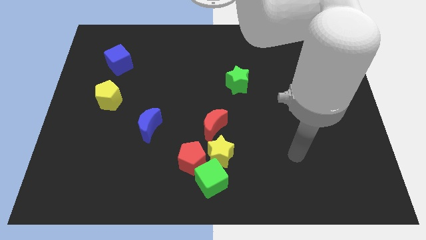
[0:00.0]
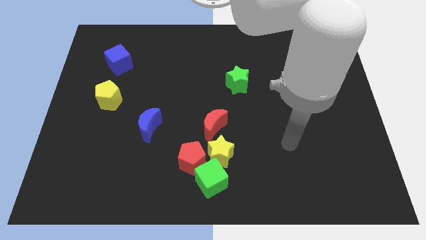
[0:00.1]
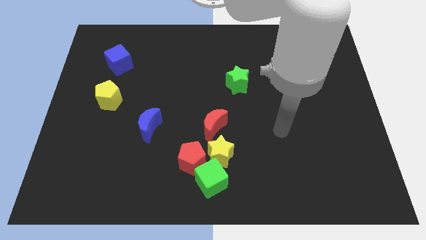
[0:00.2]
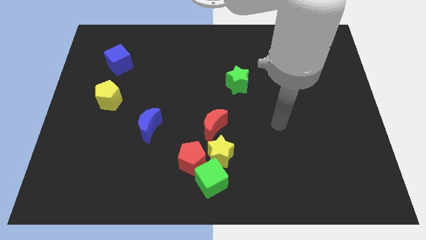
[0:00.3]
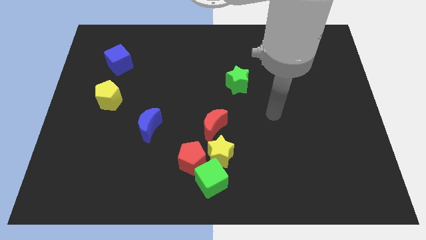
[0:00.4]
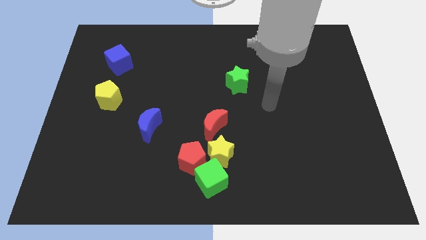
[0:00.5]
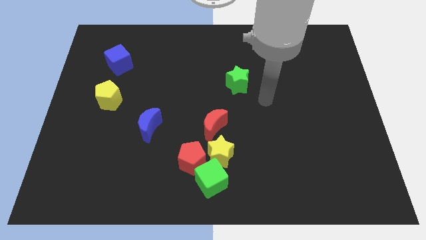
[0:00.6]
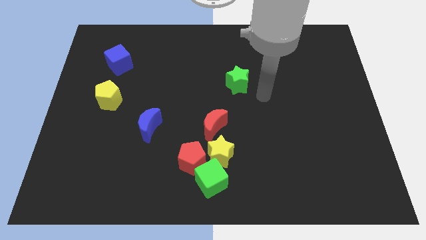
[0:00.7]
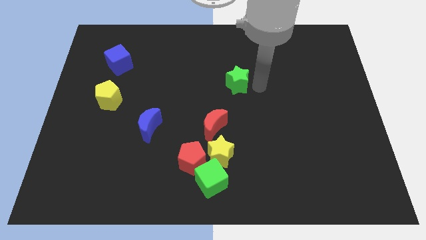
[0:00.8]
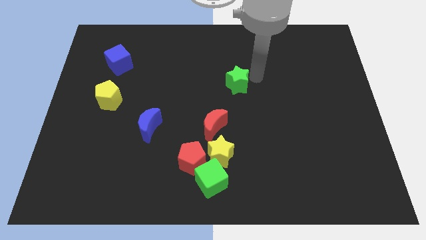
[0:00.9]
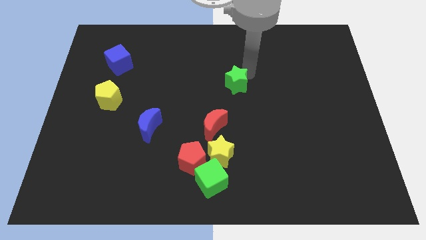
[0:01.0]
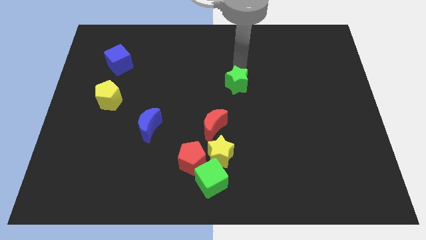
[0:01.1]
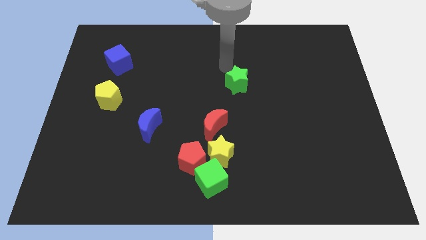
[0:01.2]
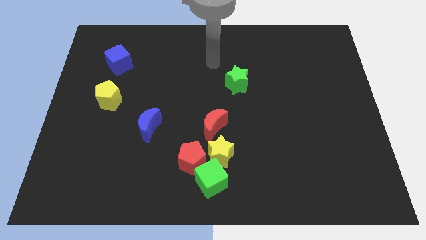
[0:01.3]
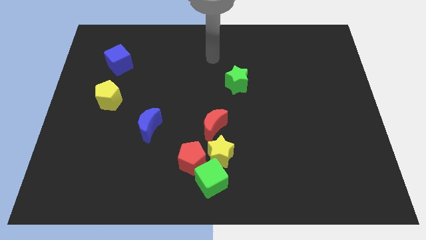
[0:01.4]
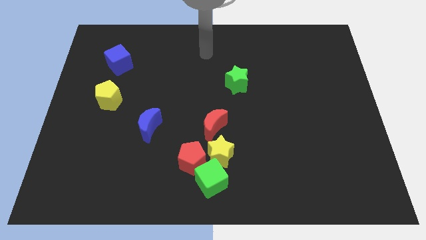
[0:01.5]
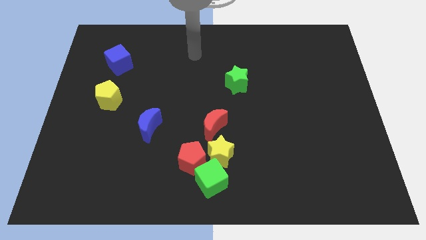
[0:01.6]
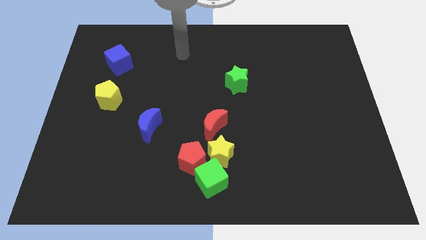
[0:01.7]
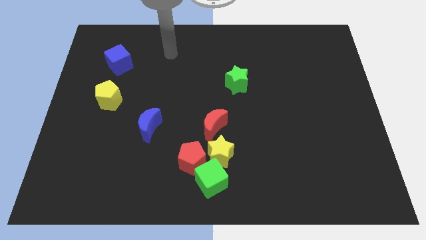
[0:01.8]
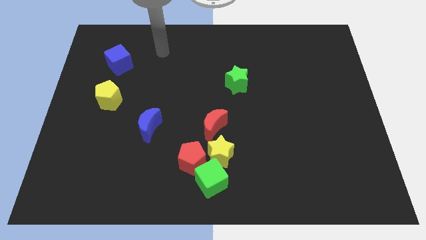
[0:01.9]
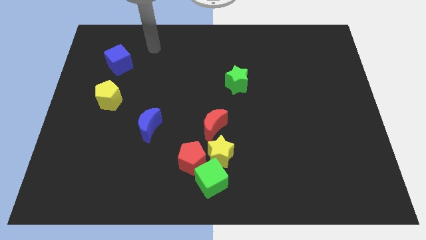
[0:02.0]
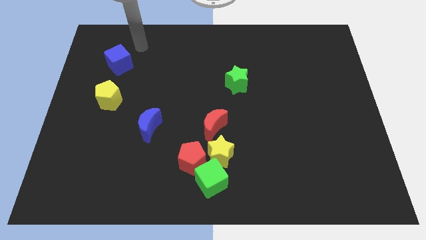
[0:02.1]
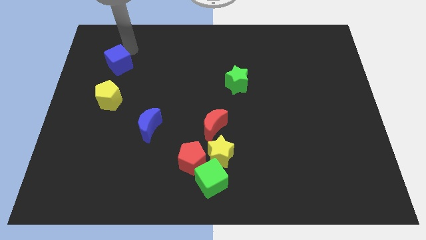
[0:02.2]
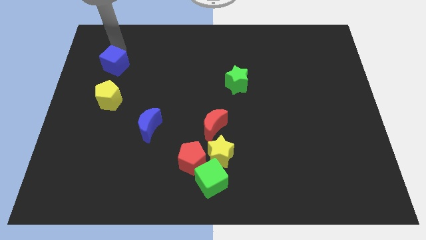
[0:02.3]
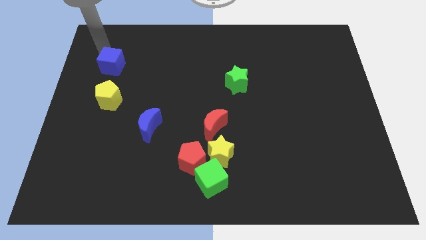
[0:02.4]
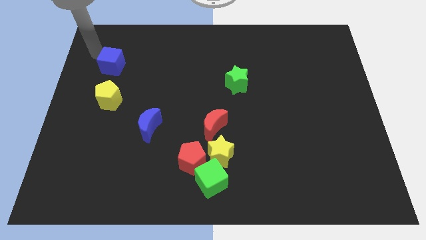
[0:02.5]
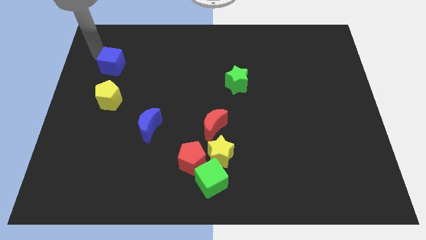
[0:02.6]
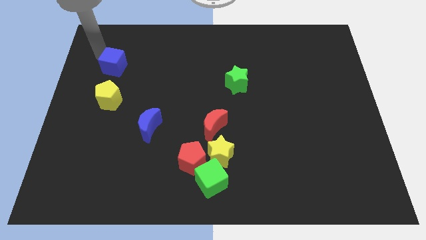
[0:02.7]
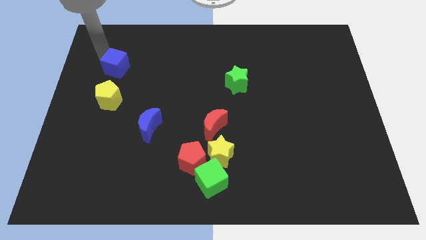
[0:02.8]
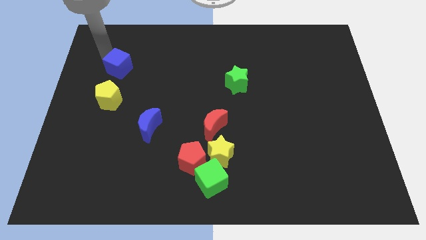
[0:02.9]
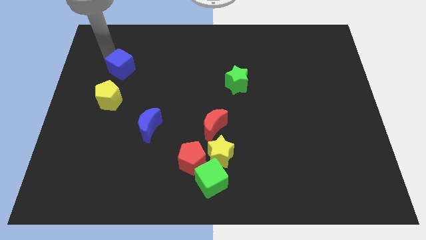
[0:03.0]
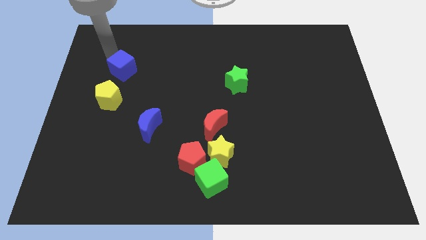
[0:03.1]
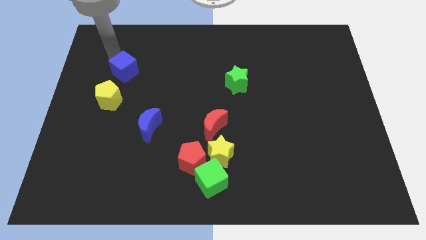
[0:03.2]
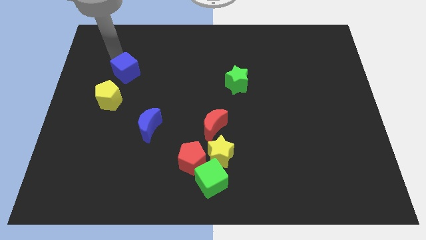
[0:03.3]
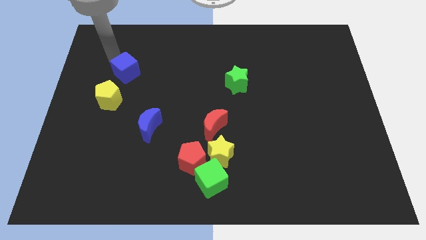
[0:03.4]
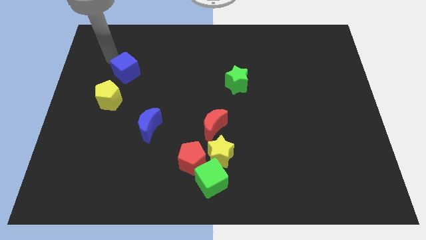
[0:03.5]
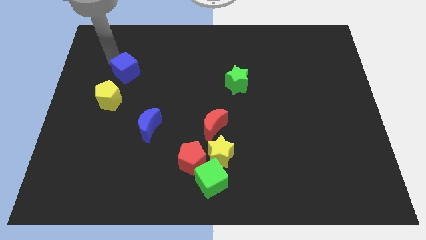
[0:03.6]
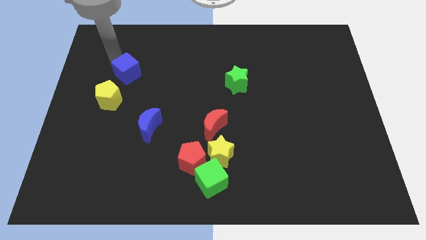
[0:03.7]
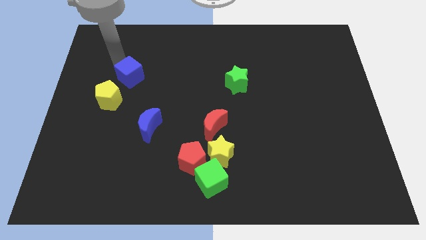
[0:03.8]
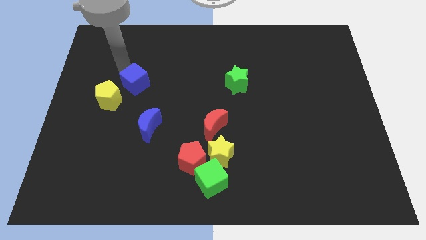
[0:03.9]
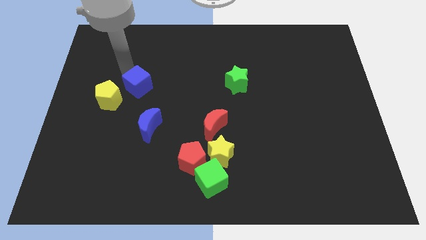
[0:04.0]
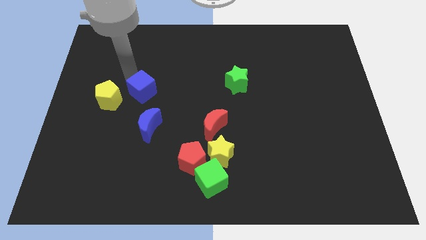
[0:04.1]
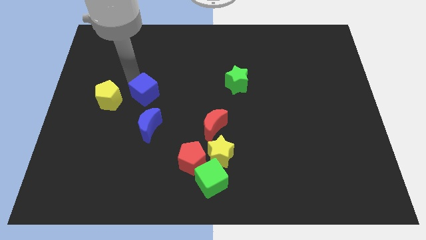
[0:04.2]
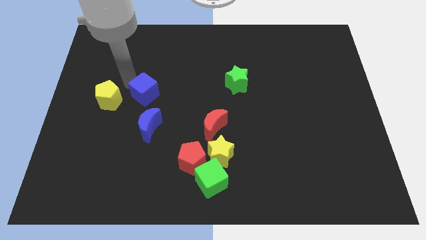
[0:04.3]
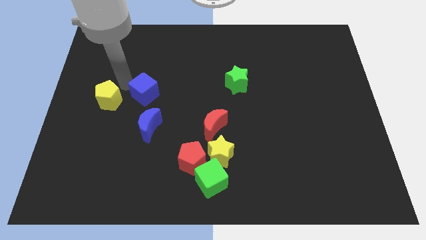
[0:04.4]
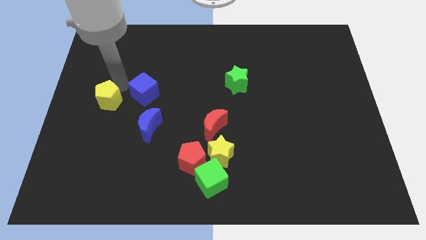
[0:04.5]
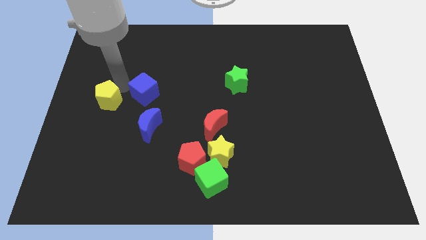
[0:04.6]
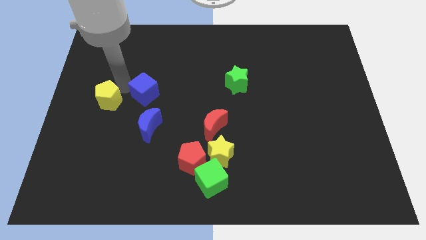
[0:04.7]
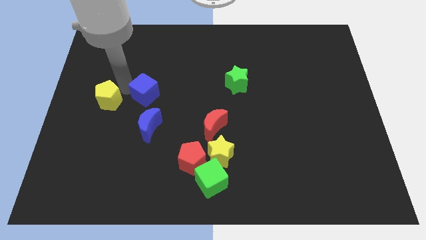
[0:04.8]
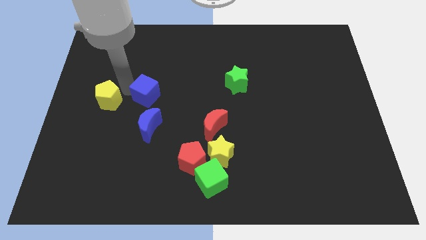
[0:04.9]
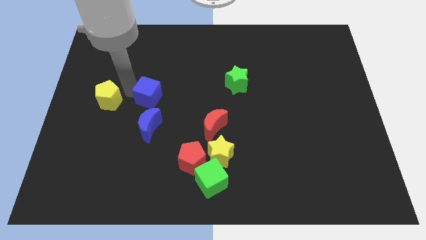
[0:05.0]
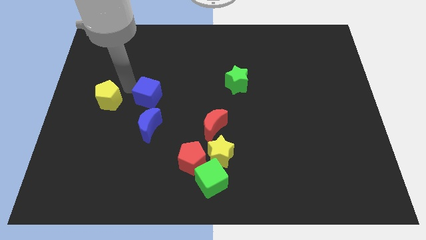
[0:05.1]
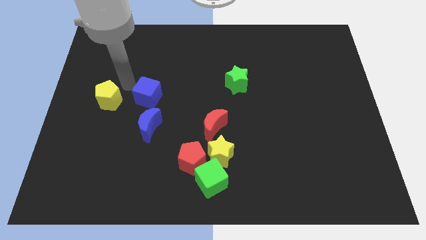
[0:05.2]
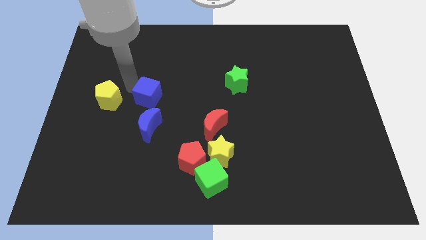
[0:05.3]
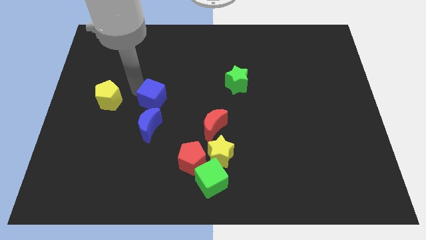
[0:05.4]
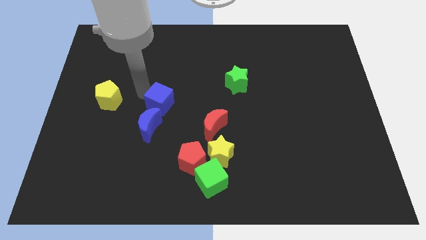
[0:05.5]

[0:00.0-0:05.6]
put the blue cube diagonally up and to the right of the blue moon

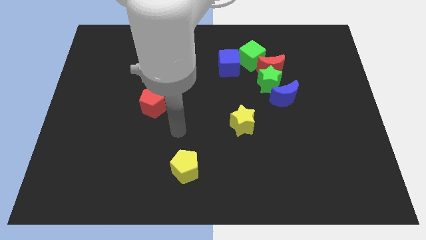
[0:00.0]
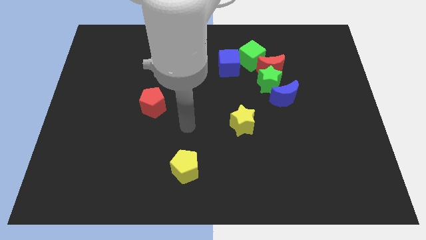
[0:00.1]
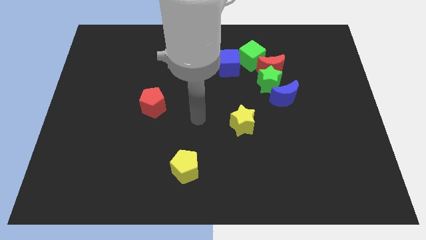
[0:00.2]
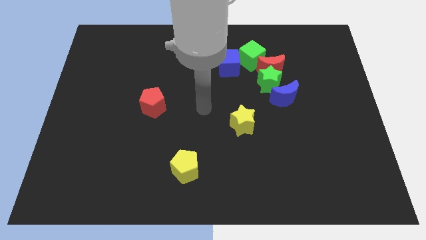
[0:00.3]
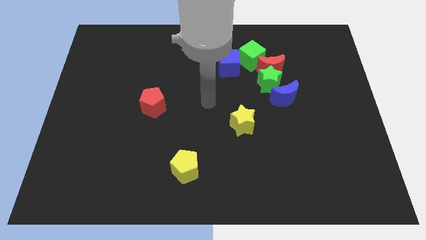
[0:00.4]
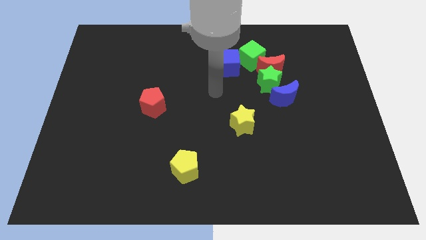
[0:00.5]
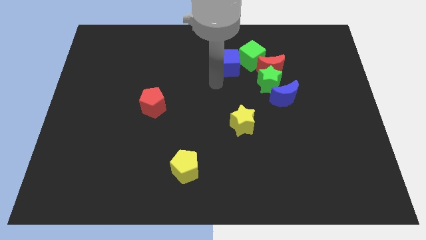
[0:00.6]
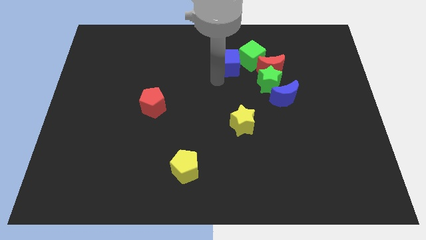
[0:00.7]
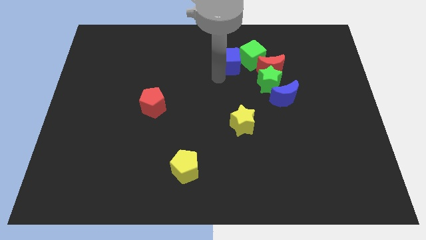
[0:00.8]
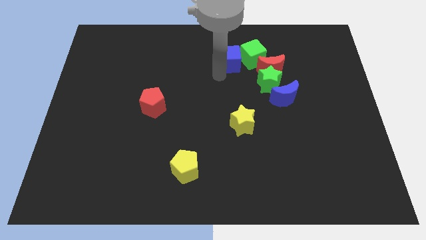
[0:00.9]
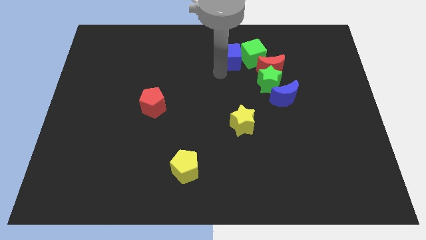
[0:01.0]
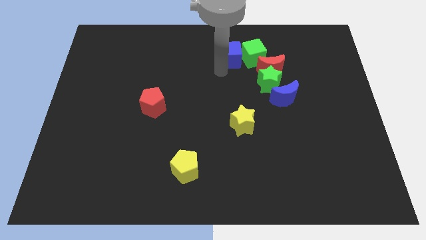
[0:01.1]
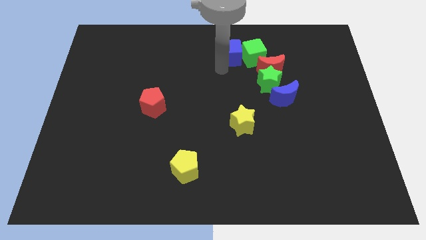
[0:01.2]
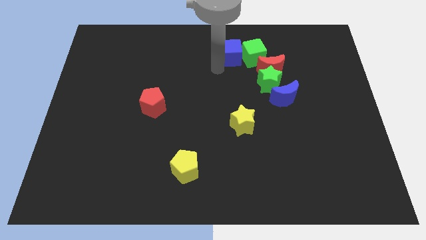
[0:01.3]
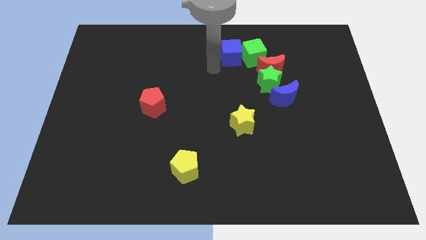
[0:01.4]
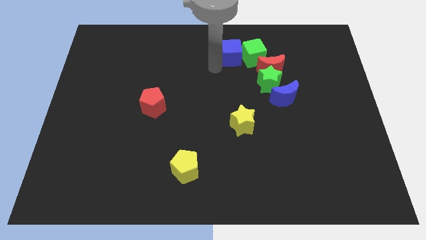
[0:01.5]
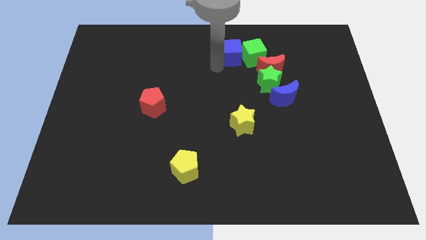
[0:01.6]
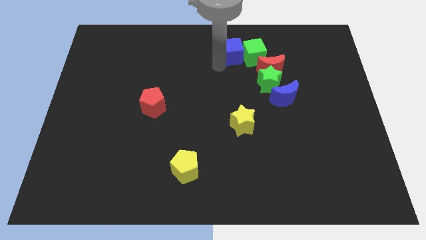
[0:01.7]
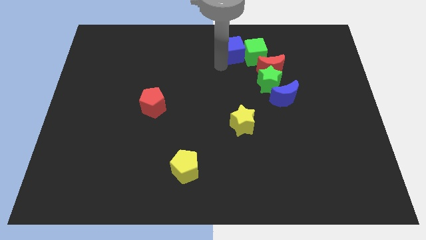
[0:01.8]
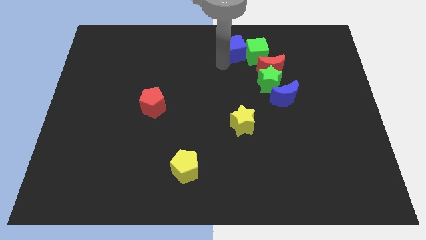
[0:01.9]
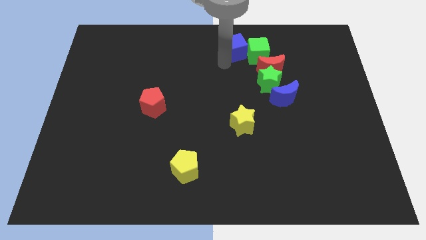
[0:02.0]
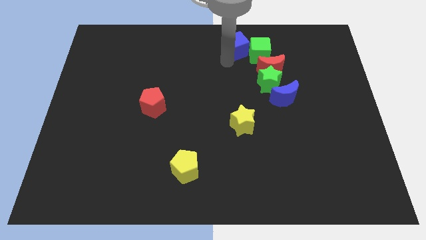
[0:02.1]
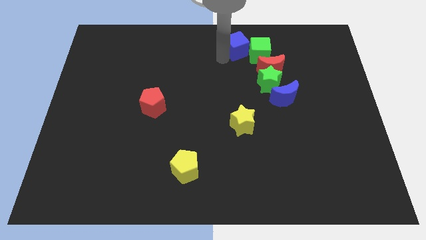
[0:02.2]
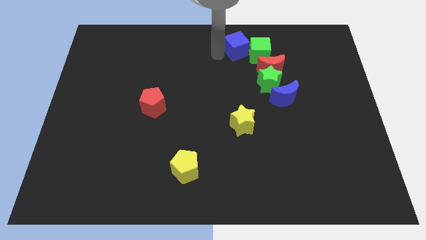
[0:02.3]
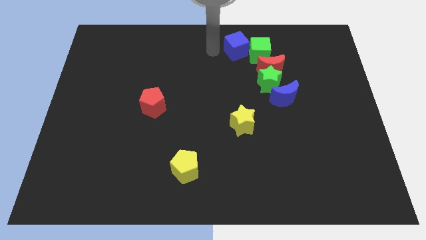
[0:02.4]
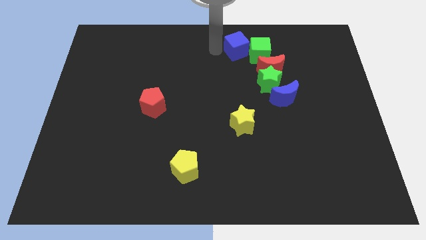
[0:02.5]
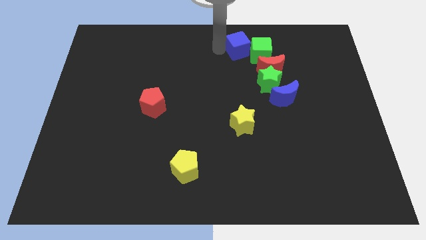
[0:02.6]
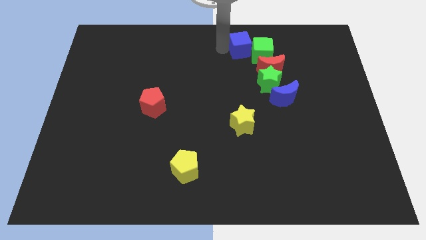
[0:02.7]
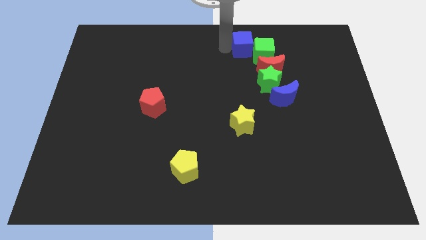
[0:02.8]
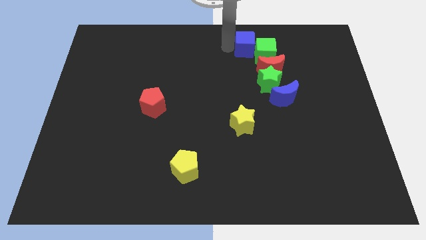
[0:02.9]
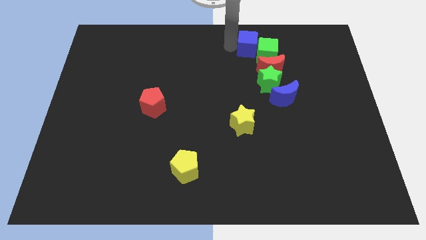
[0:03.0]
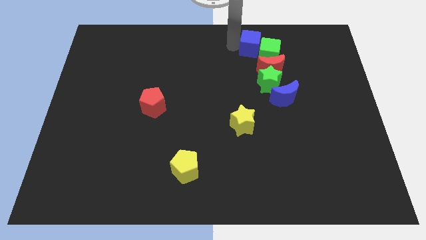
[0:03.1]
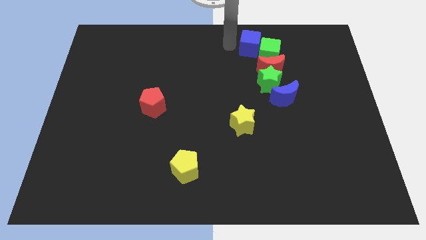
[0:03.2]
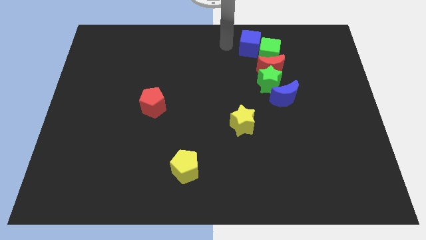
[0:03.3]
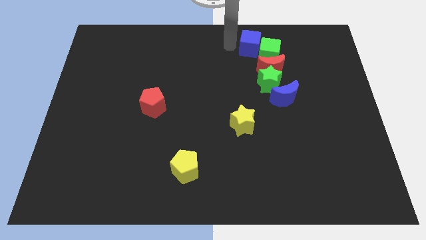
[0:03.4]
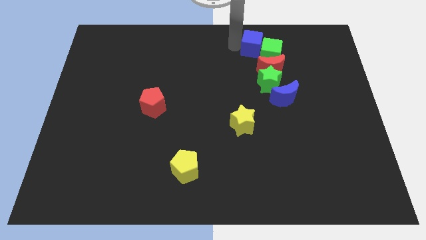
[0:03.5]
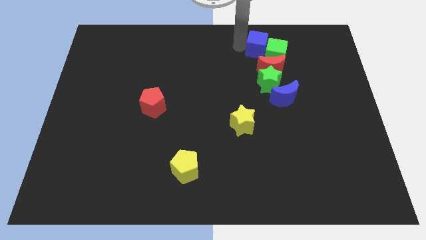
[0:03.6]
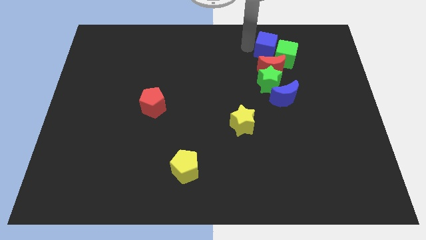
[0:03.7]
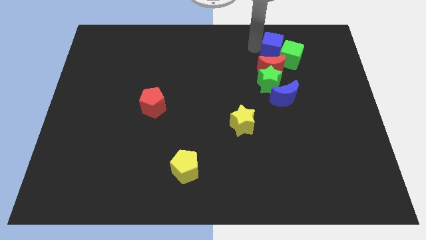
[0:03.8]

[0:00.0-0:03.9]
push the blue cube to the top right of the red moon
